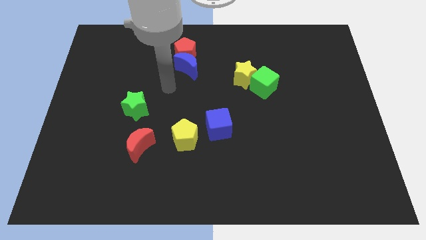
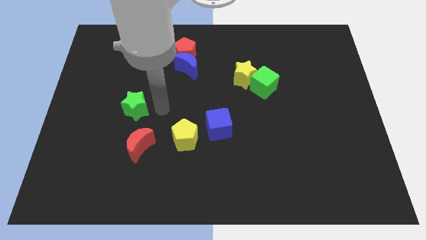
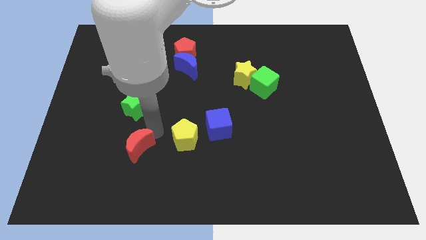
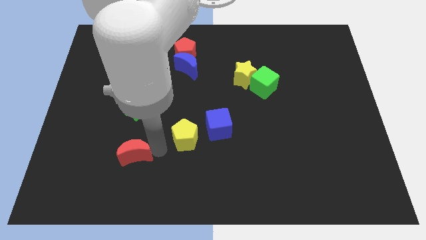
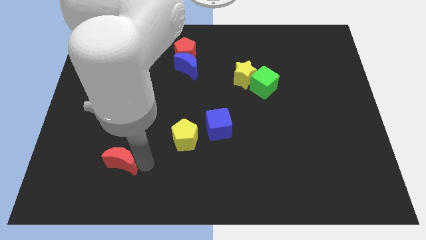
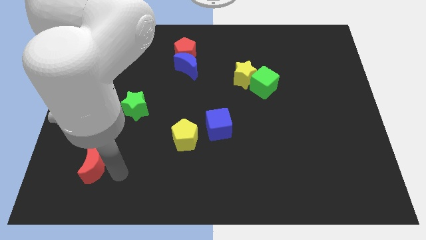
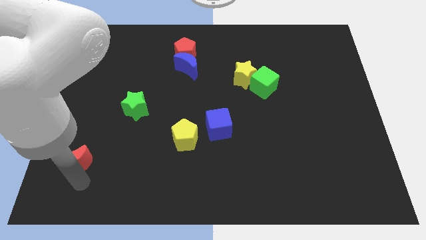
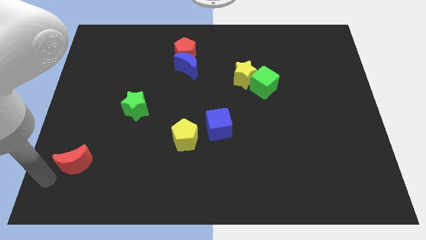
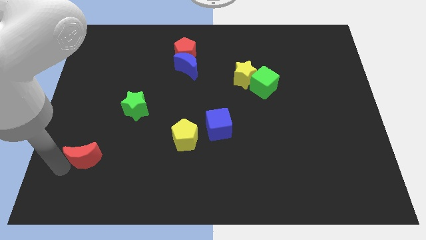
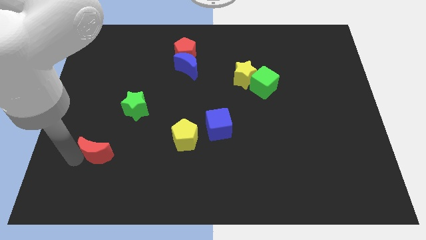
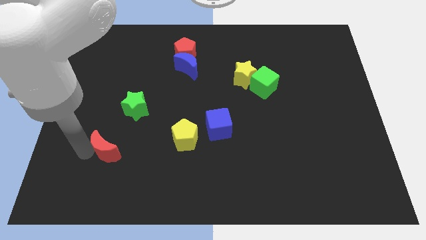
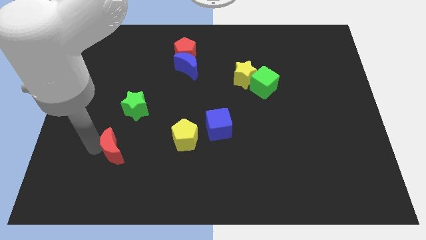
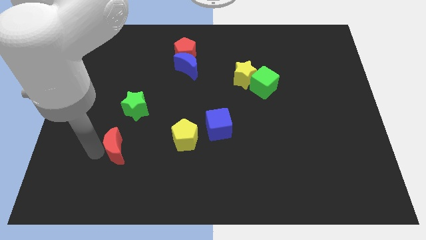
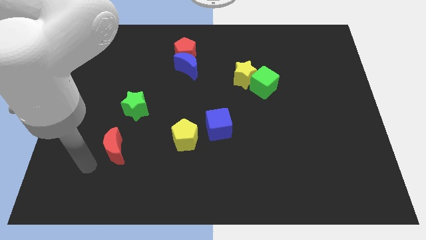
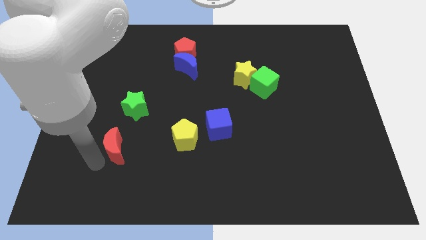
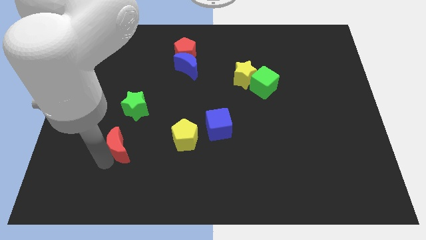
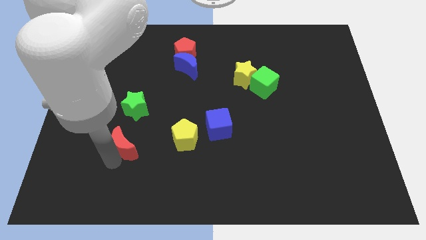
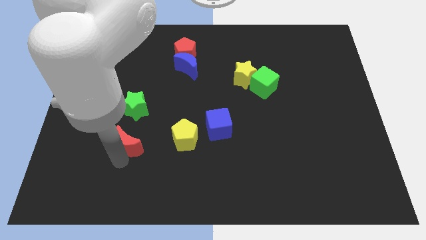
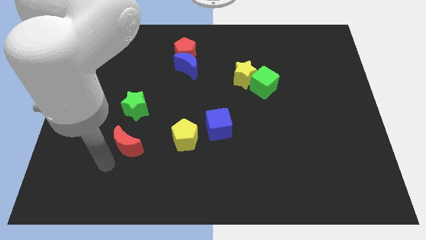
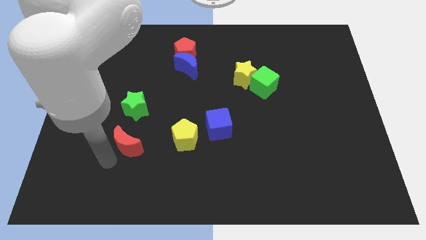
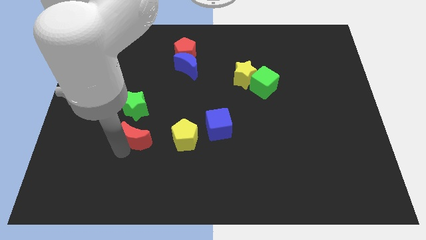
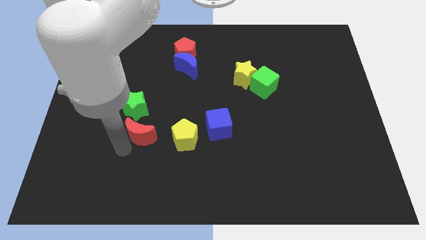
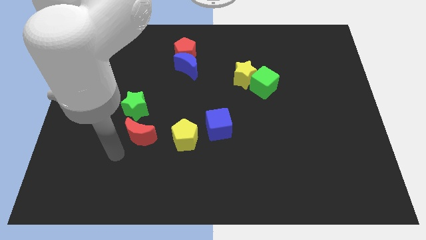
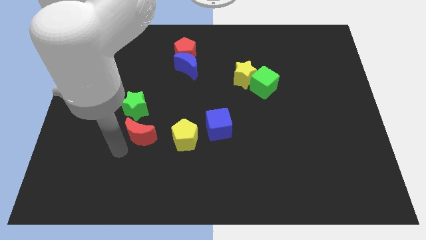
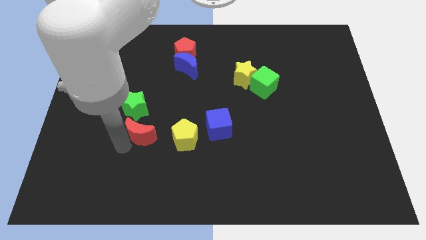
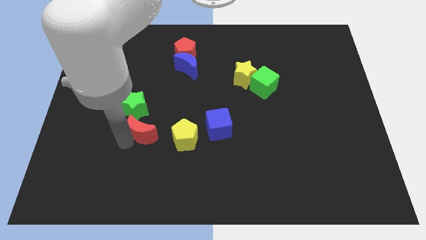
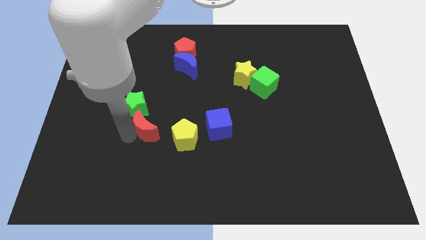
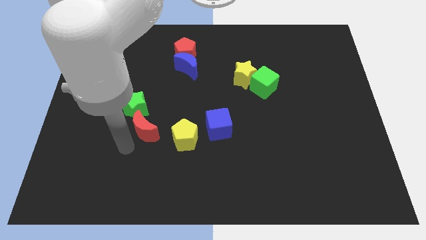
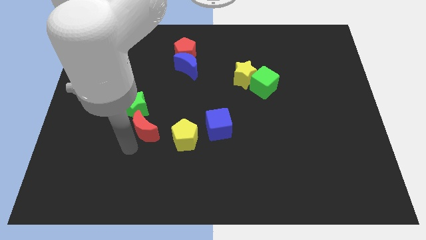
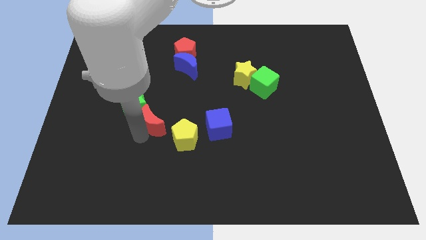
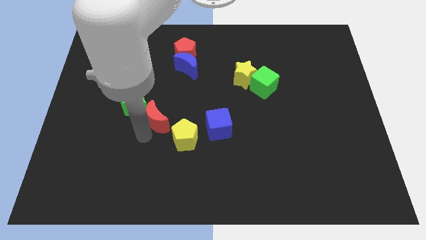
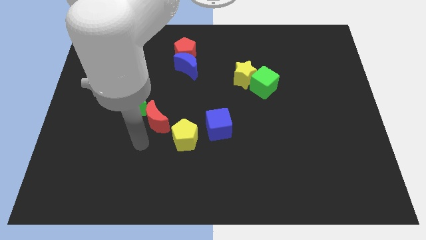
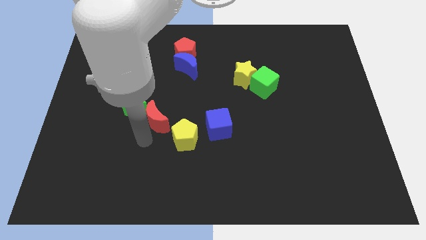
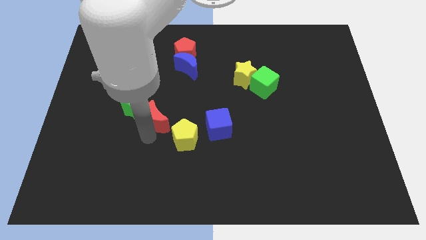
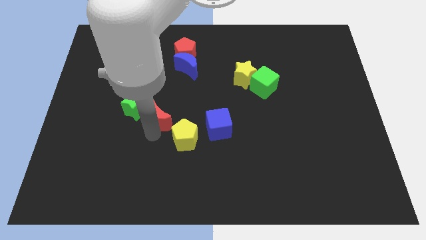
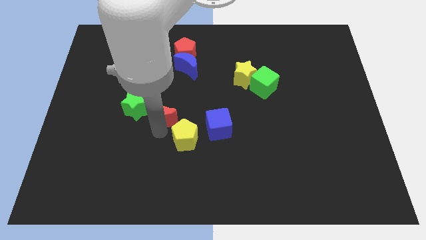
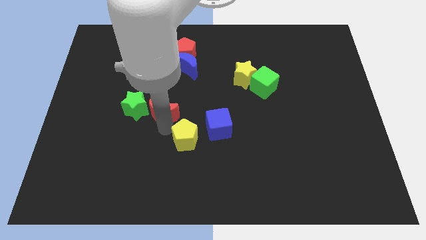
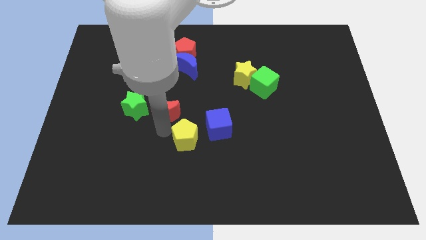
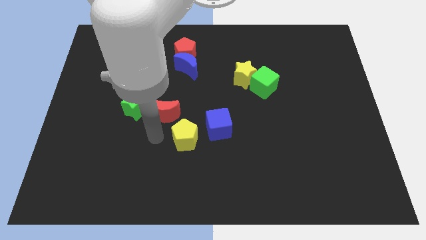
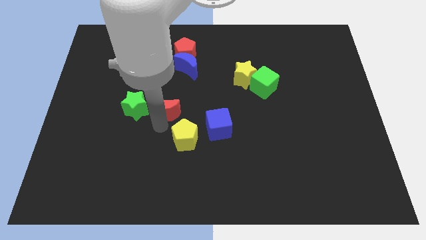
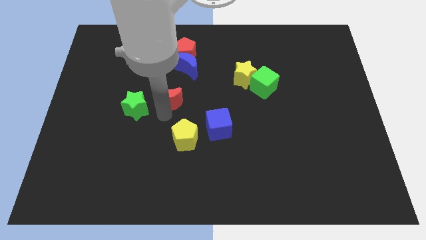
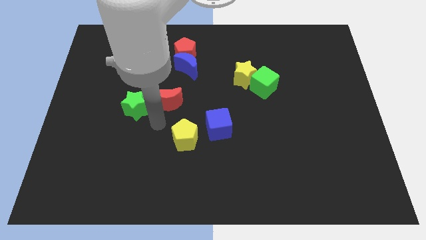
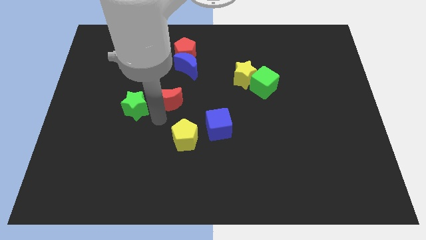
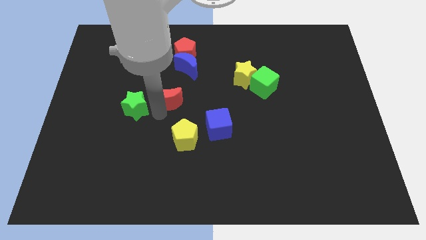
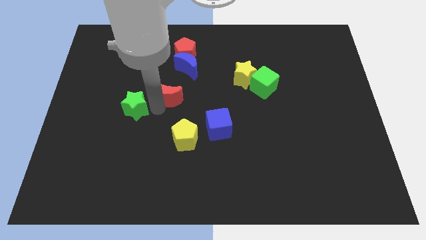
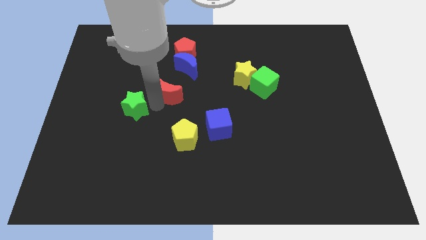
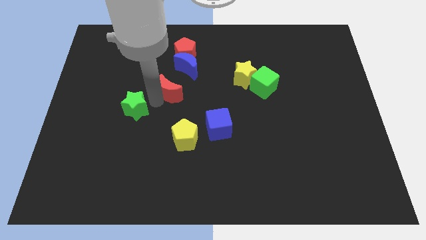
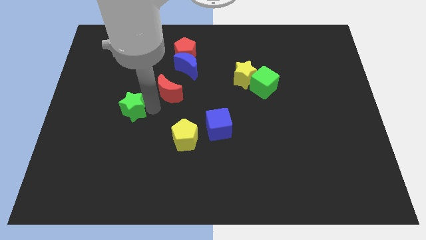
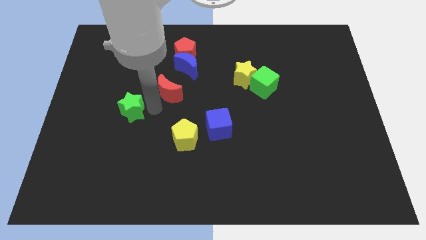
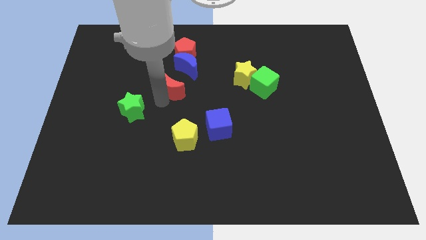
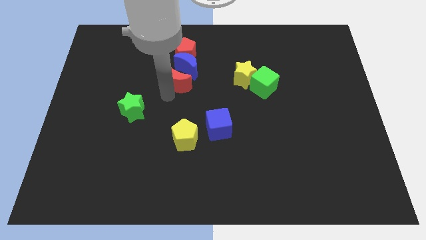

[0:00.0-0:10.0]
move the red moon close to the blue moon

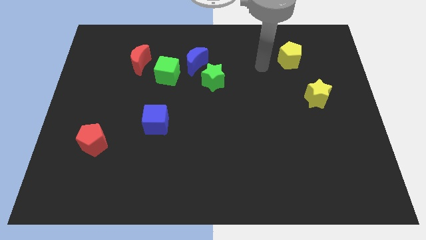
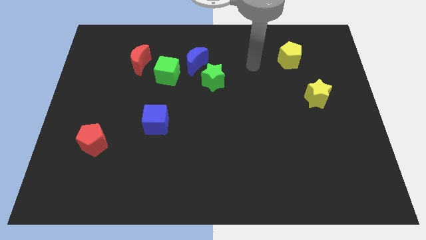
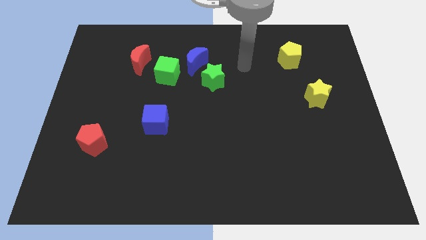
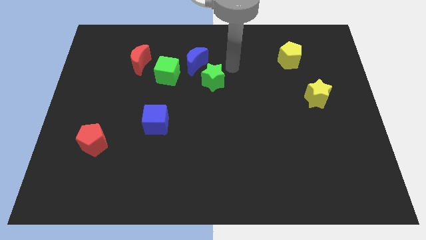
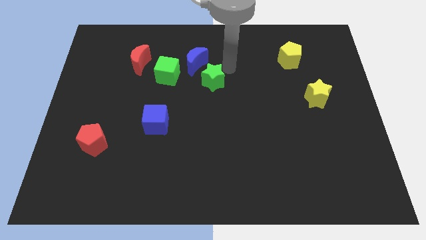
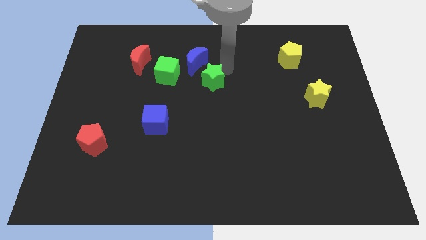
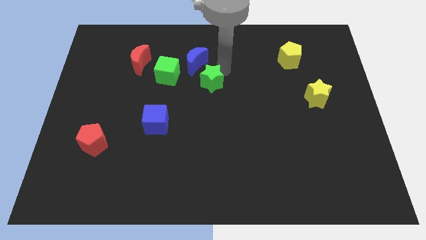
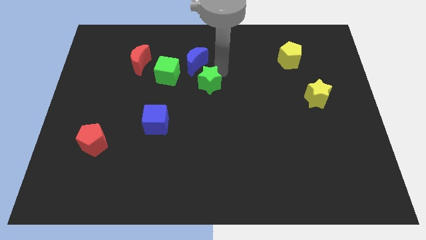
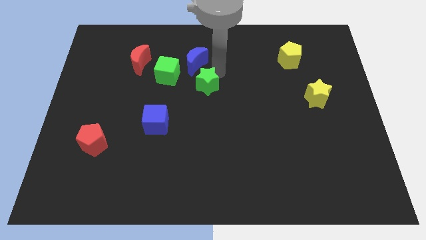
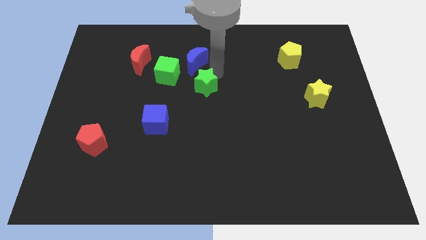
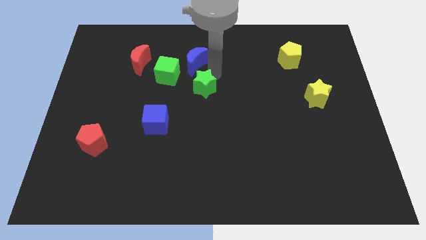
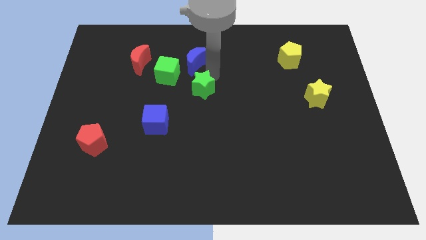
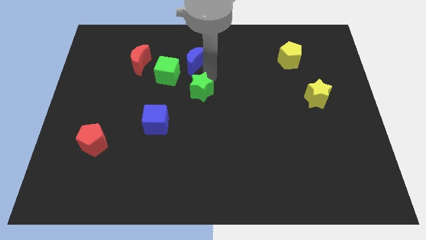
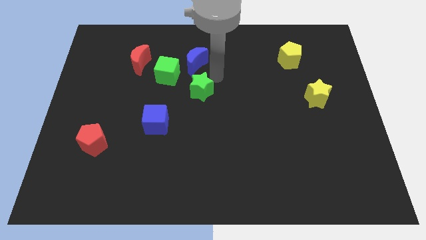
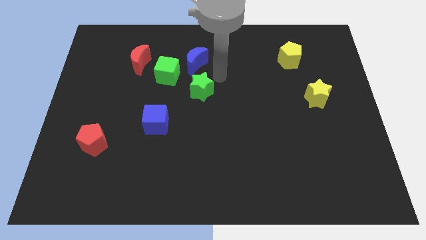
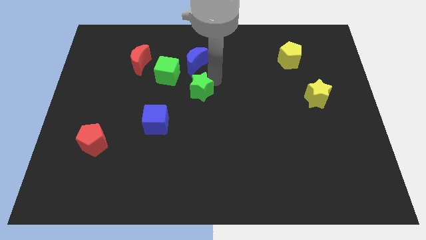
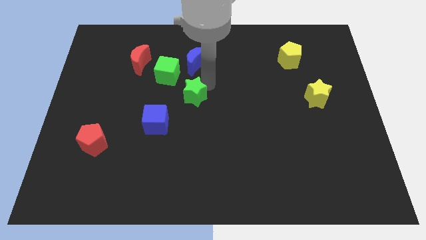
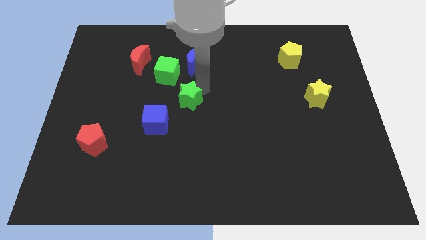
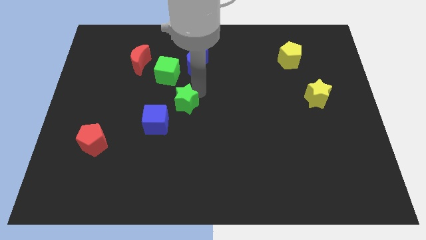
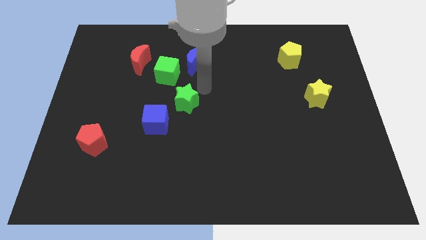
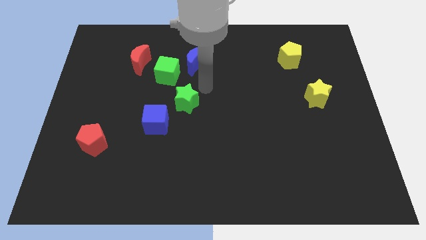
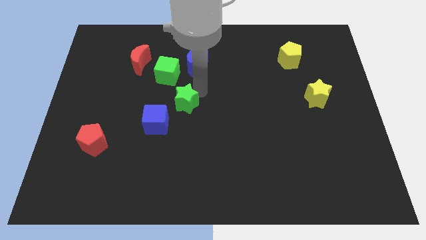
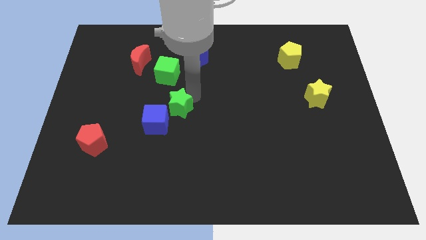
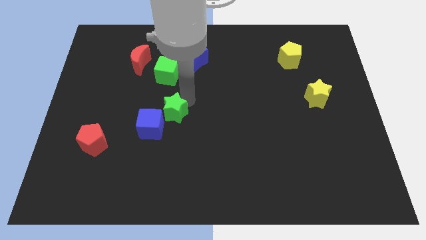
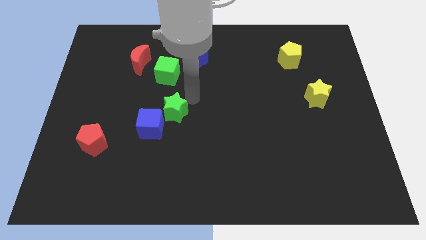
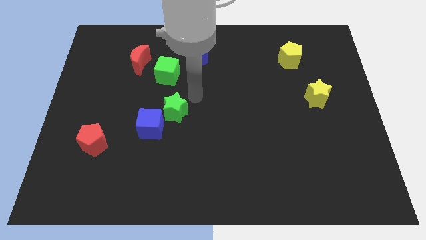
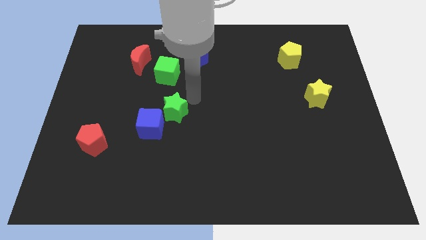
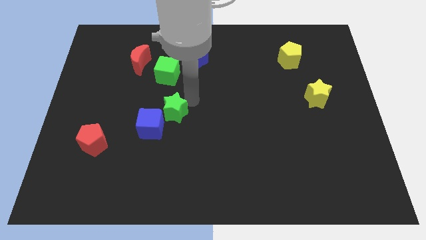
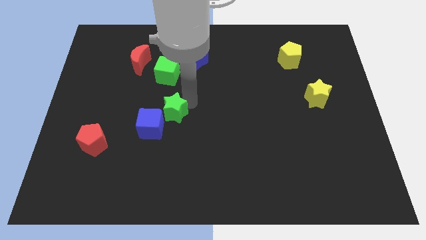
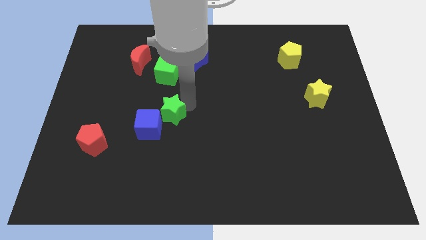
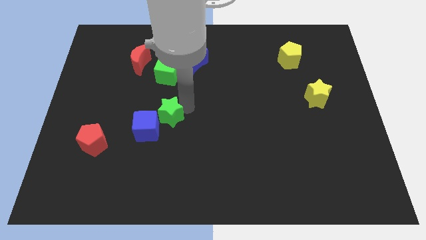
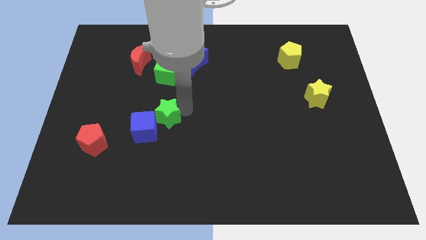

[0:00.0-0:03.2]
push the green star towards the blue cube
